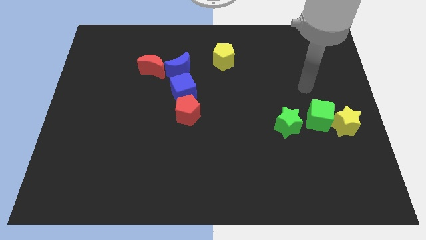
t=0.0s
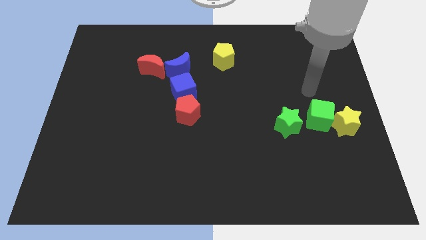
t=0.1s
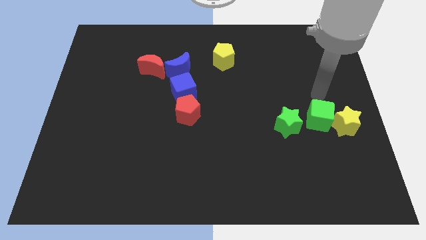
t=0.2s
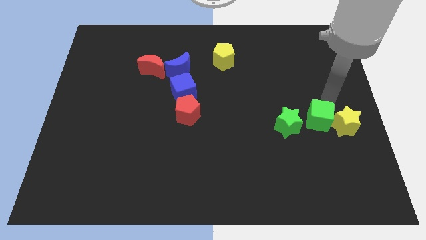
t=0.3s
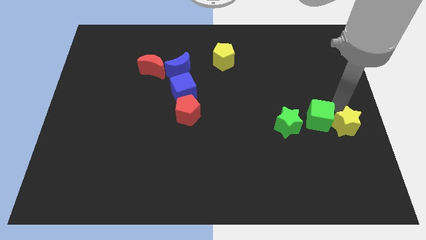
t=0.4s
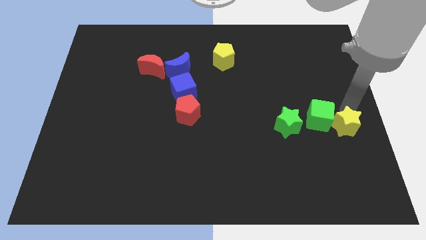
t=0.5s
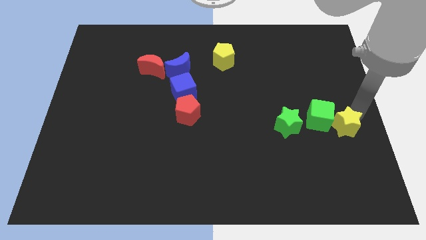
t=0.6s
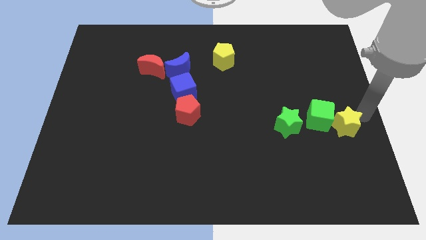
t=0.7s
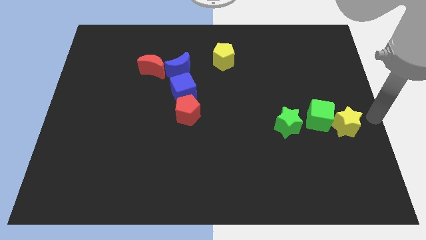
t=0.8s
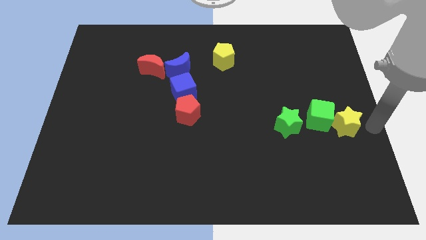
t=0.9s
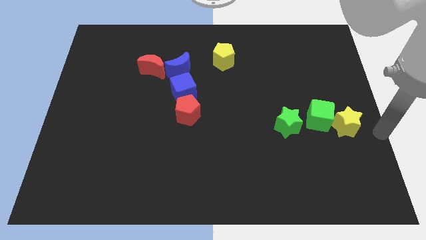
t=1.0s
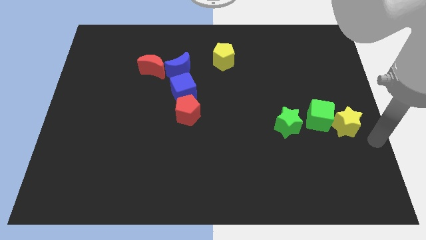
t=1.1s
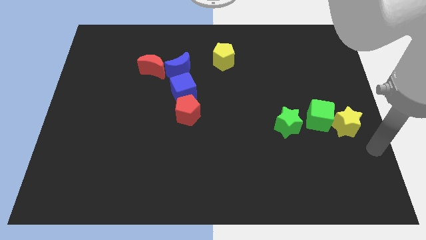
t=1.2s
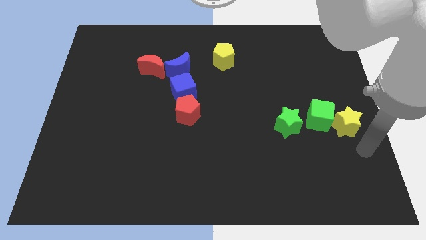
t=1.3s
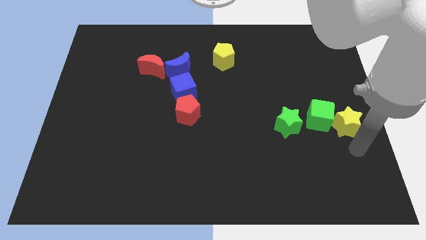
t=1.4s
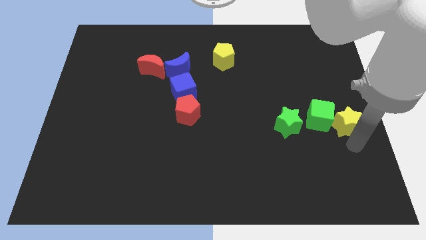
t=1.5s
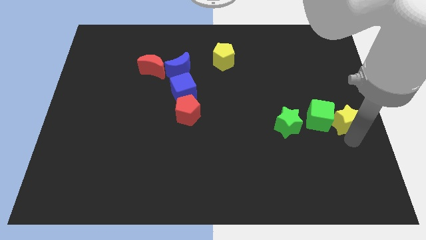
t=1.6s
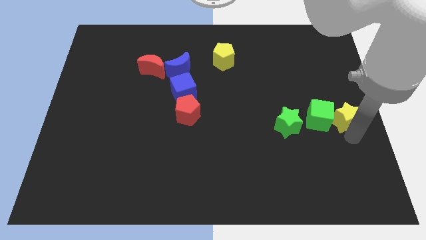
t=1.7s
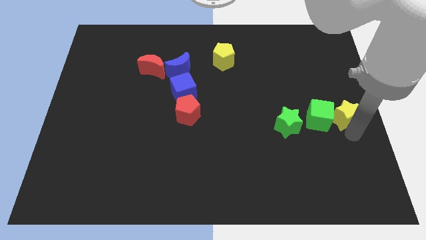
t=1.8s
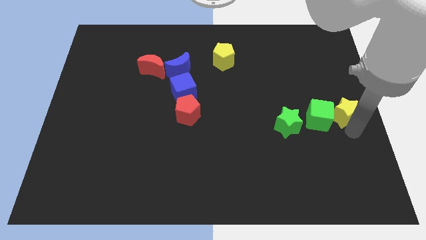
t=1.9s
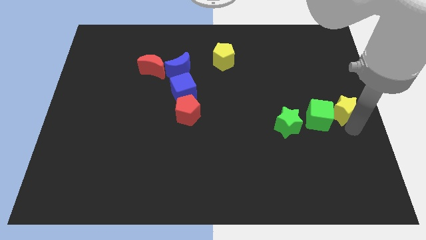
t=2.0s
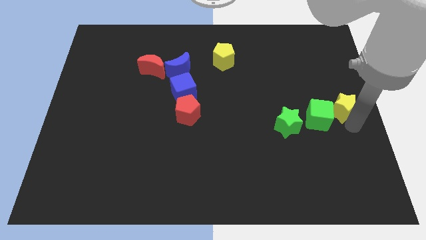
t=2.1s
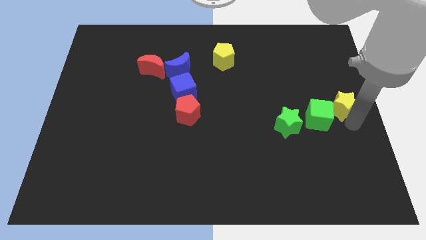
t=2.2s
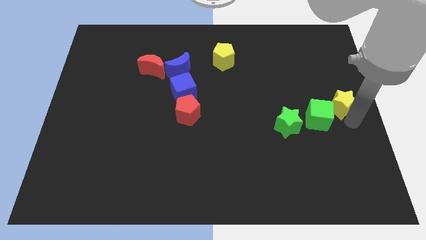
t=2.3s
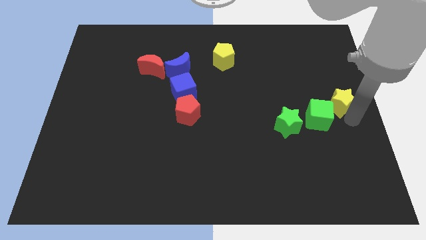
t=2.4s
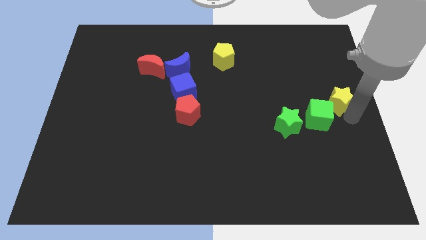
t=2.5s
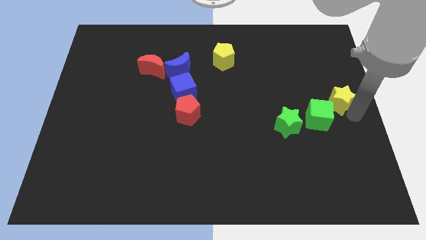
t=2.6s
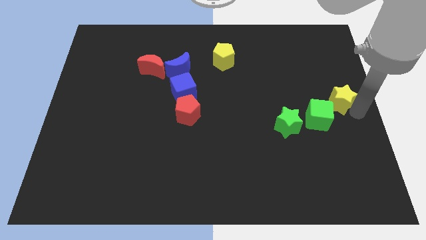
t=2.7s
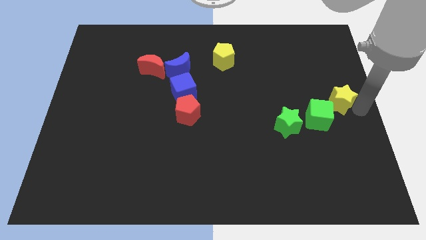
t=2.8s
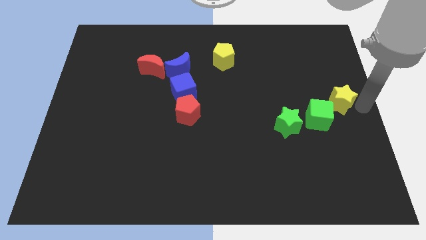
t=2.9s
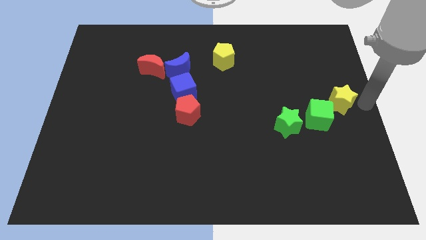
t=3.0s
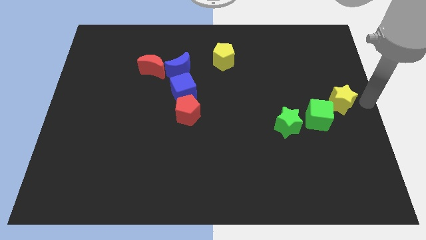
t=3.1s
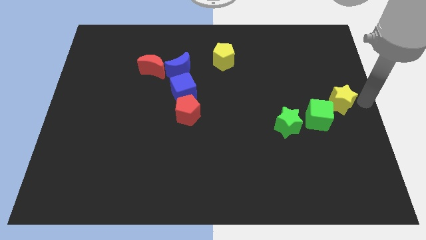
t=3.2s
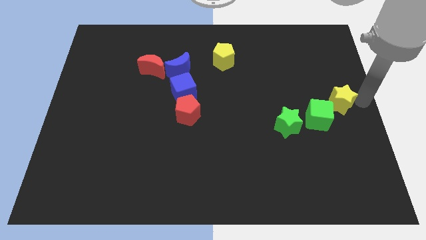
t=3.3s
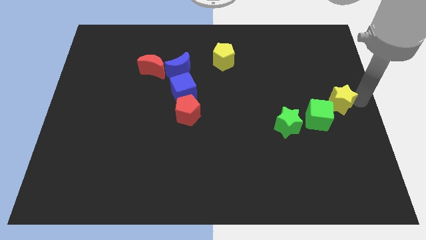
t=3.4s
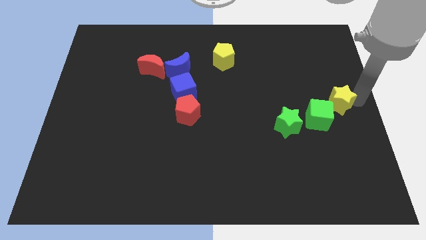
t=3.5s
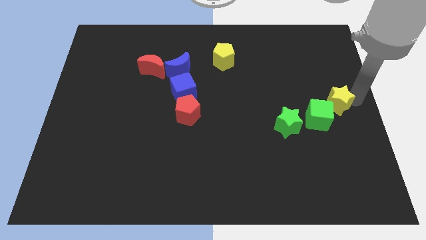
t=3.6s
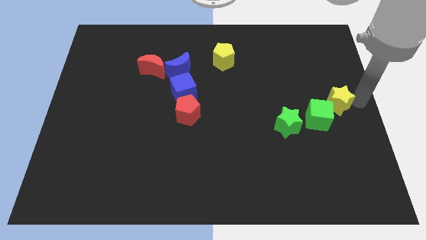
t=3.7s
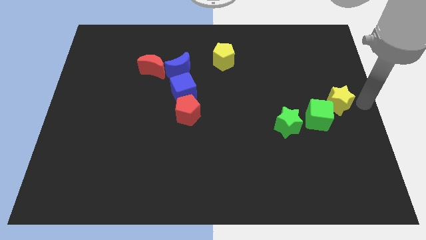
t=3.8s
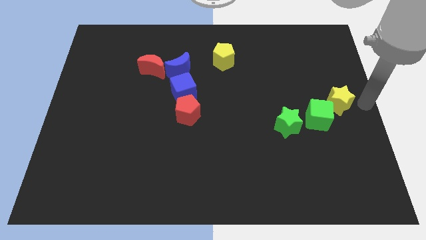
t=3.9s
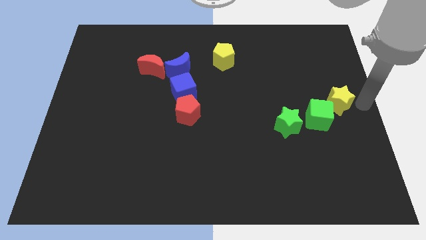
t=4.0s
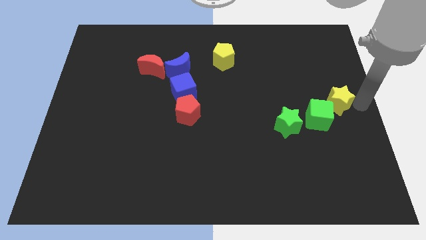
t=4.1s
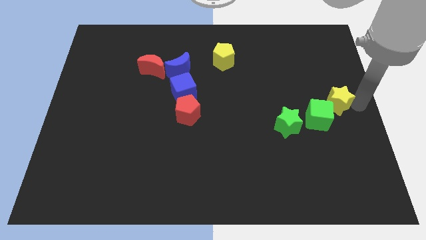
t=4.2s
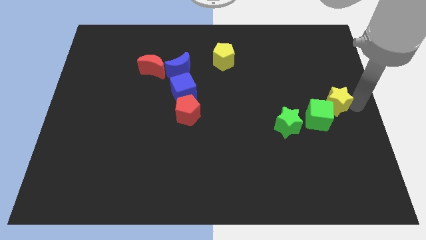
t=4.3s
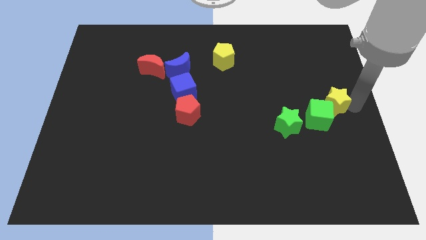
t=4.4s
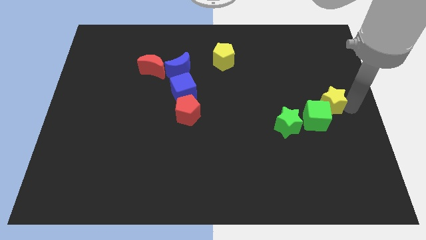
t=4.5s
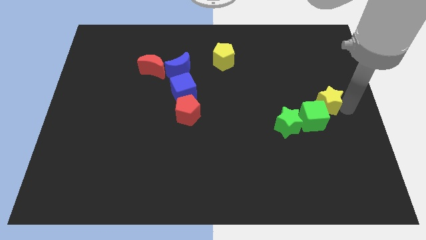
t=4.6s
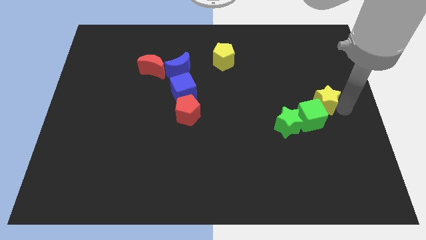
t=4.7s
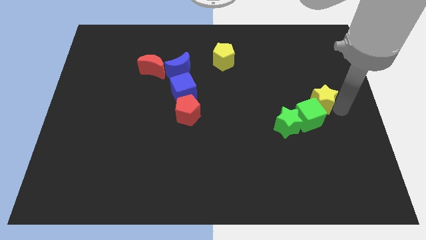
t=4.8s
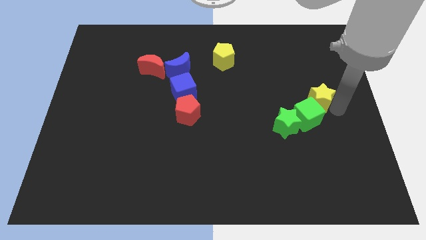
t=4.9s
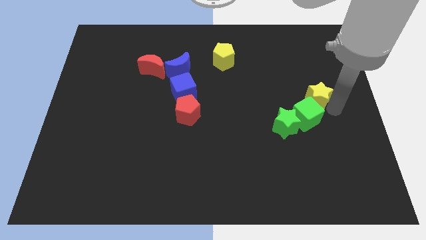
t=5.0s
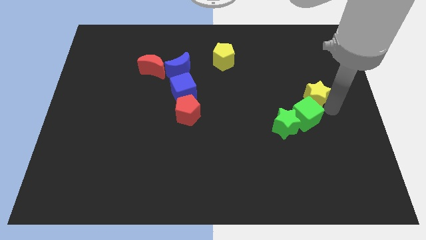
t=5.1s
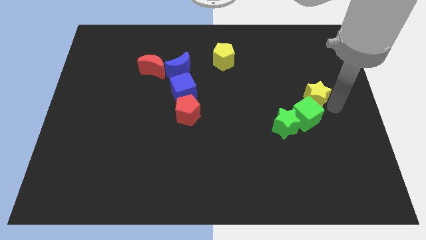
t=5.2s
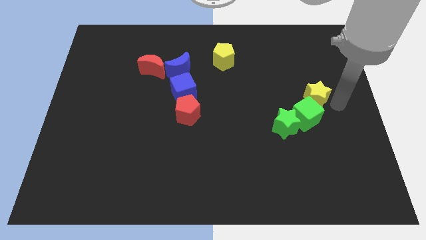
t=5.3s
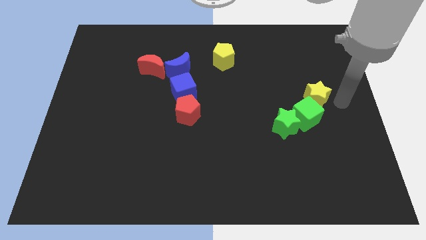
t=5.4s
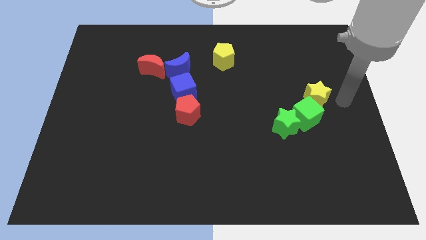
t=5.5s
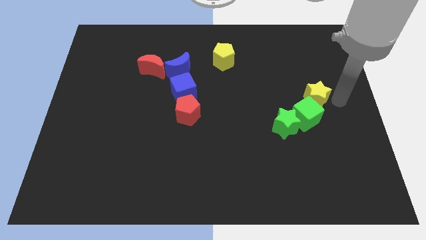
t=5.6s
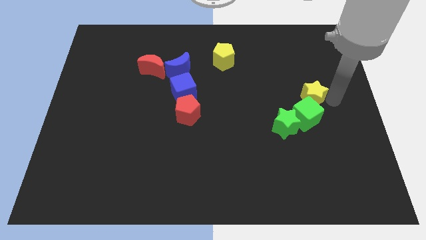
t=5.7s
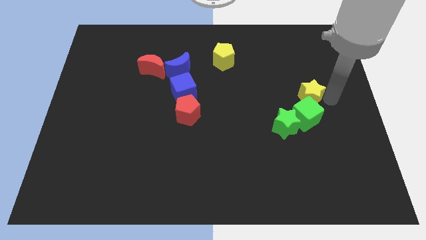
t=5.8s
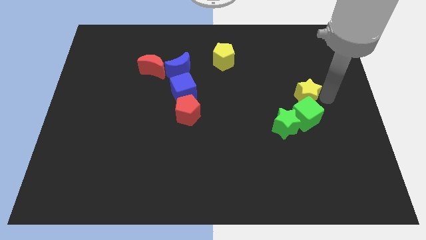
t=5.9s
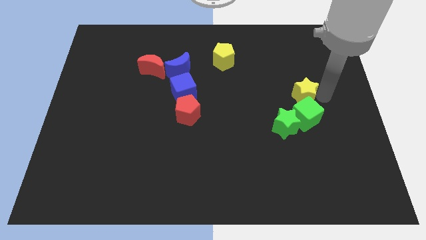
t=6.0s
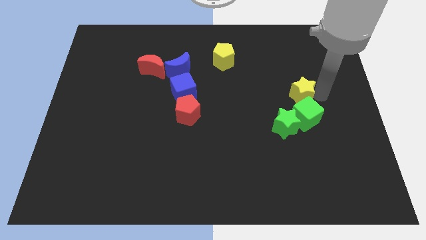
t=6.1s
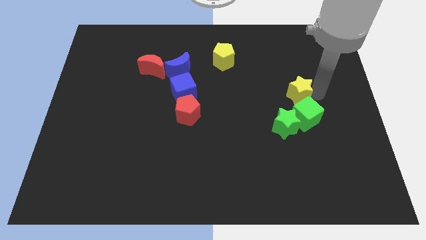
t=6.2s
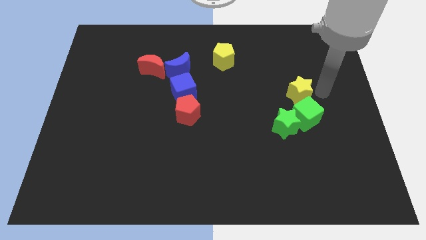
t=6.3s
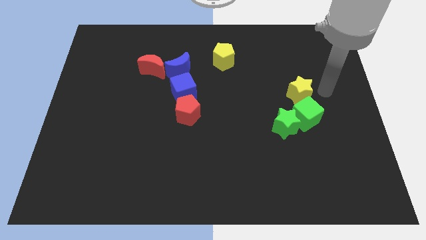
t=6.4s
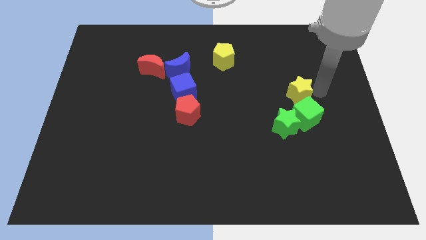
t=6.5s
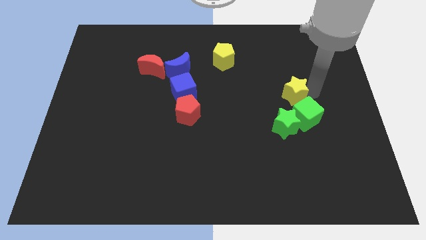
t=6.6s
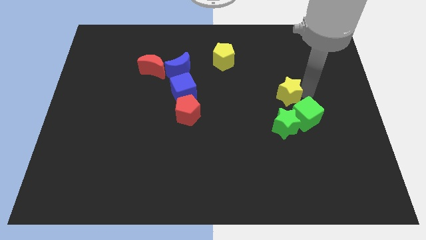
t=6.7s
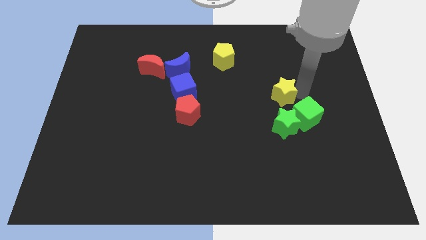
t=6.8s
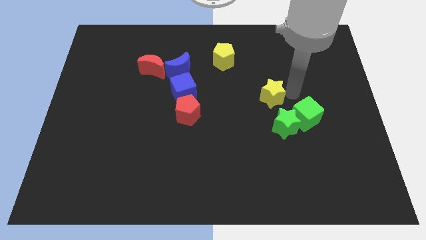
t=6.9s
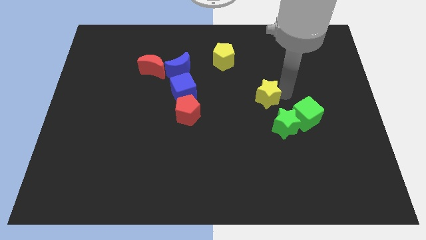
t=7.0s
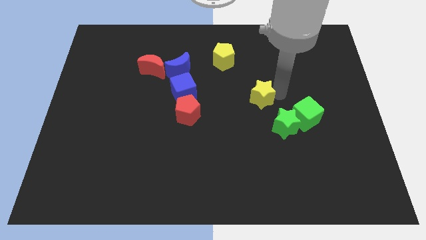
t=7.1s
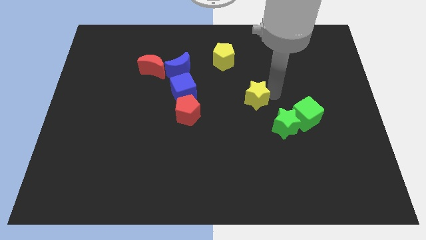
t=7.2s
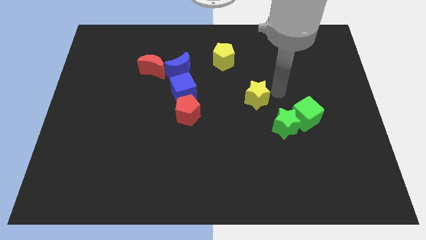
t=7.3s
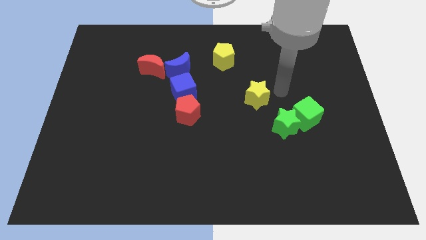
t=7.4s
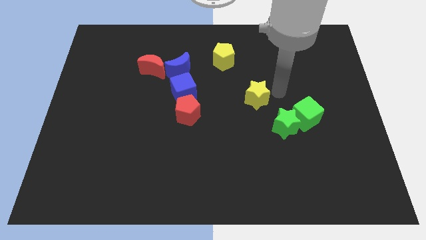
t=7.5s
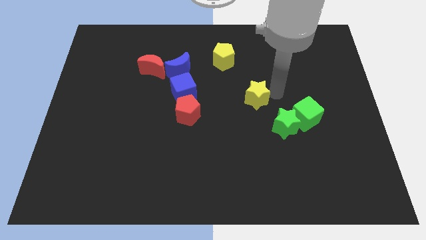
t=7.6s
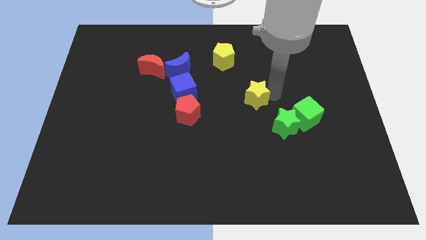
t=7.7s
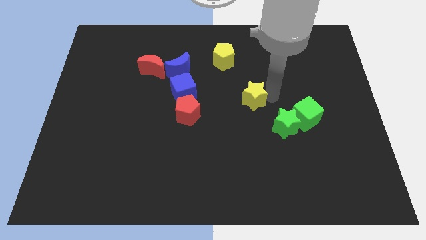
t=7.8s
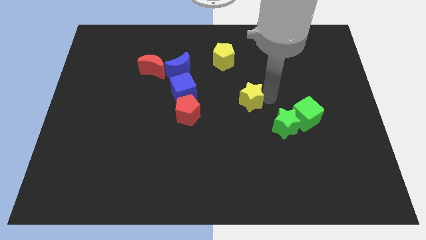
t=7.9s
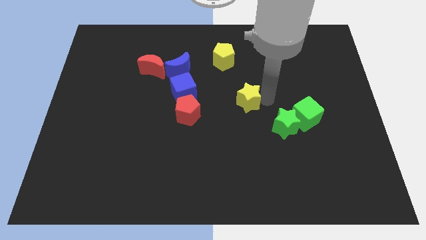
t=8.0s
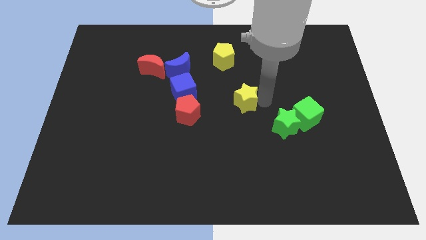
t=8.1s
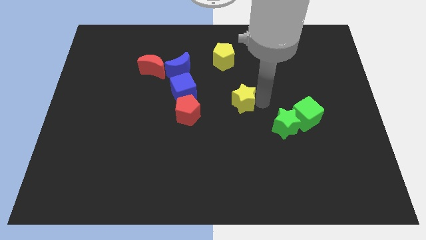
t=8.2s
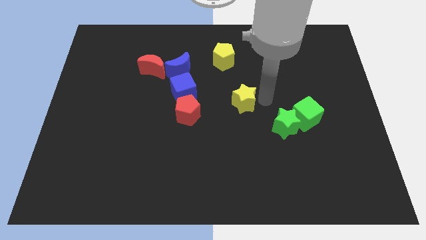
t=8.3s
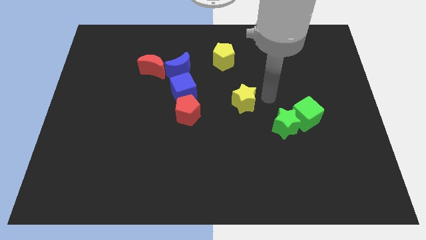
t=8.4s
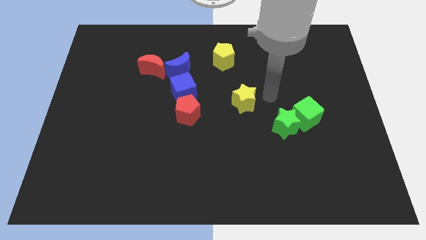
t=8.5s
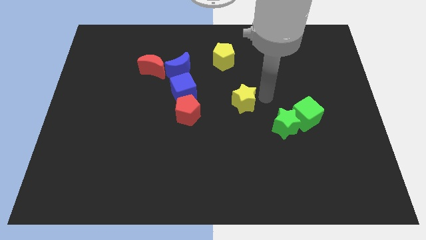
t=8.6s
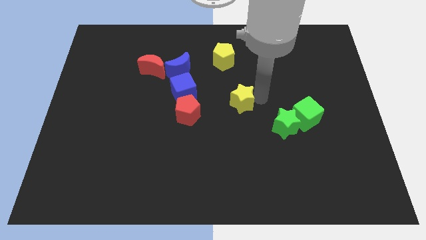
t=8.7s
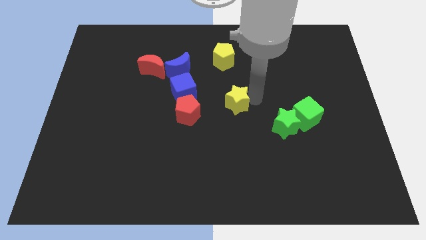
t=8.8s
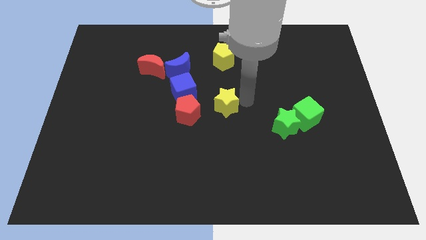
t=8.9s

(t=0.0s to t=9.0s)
move the yellow star to the bottom right of the blue cube
